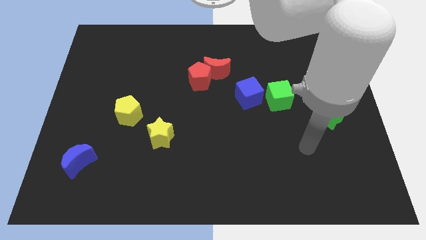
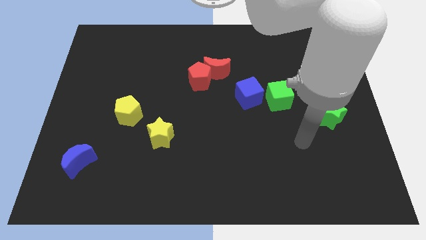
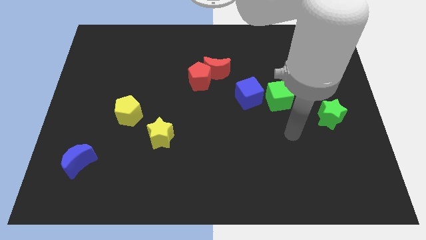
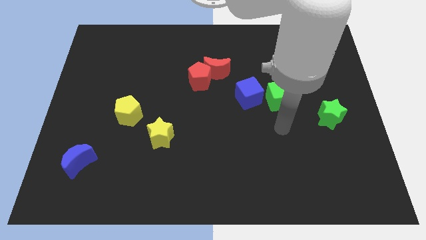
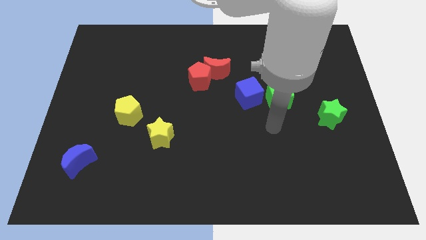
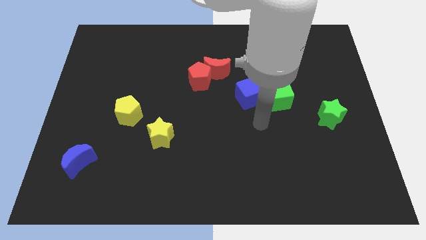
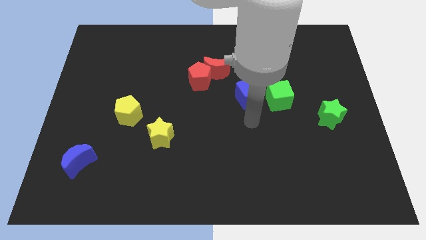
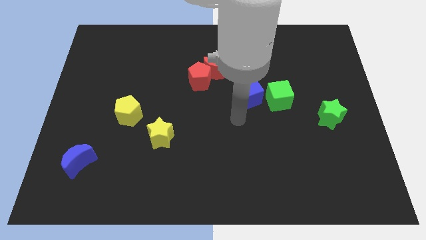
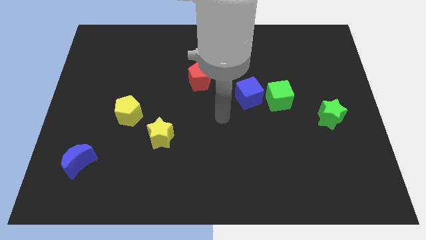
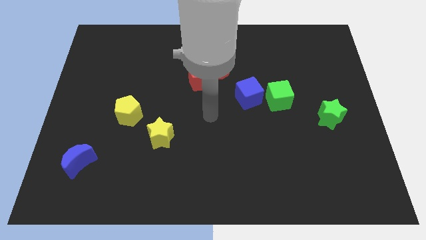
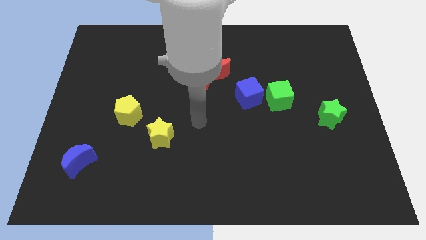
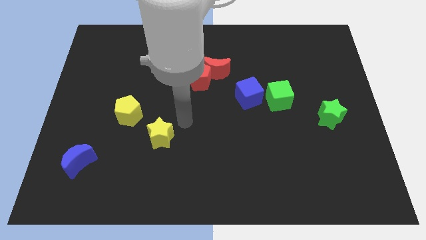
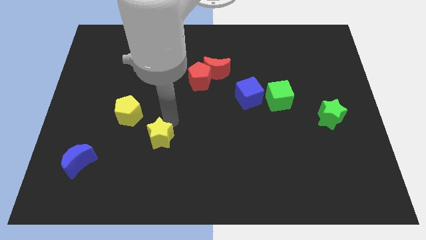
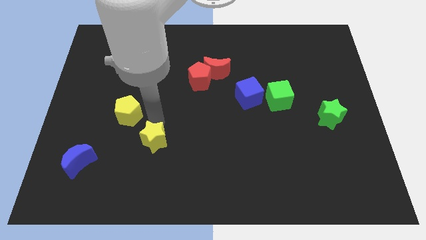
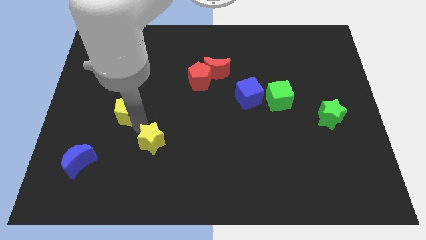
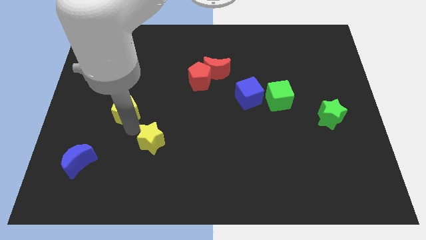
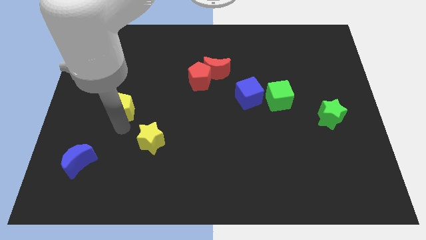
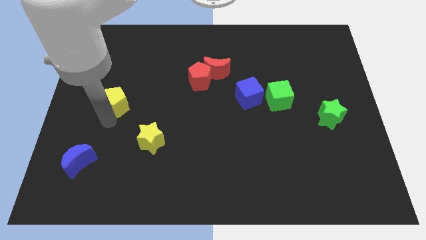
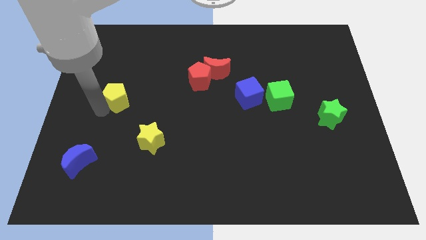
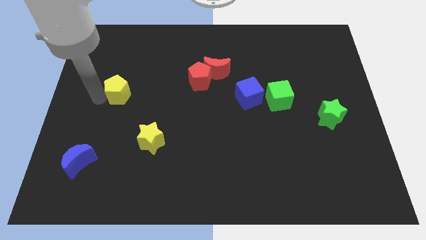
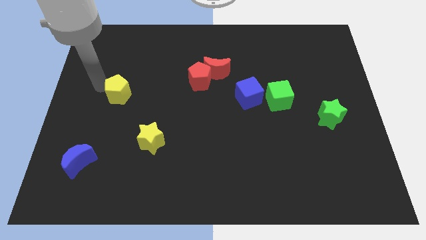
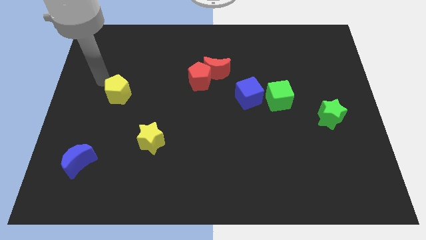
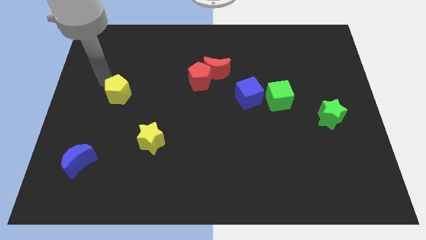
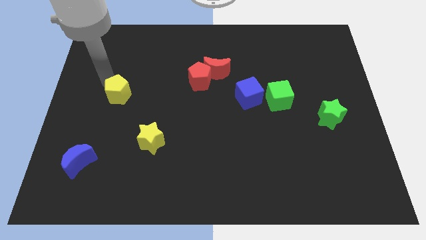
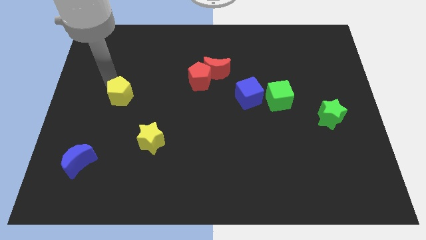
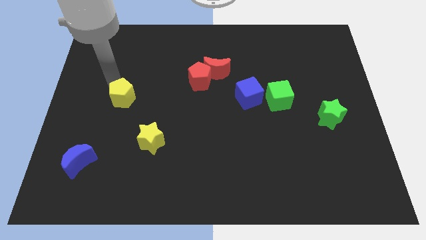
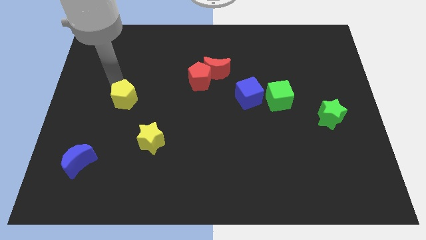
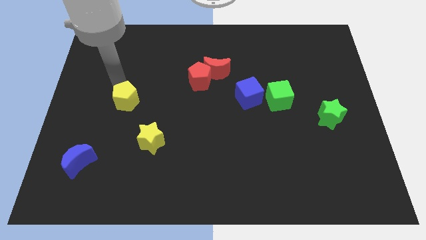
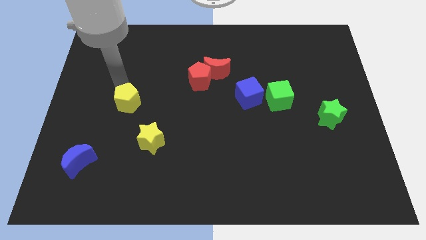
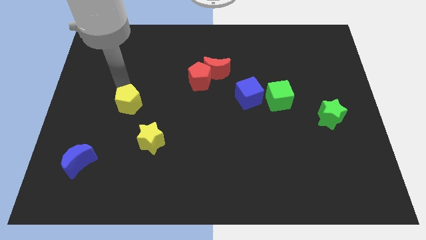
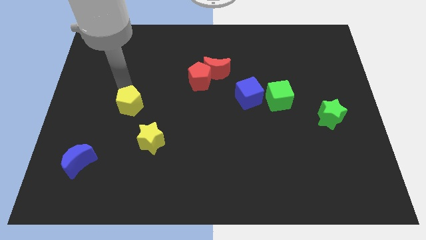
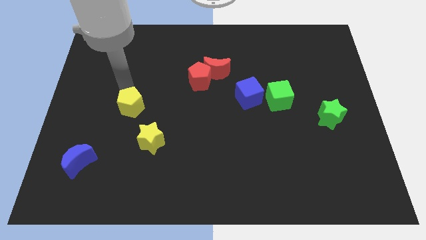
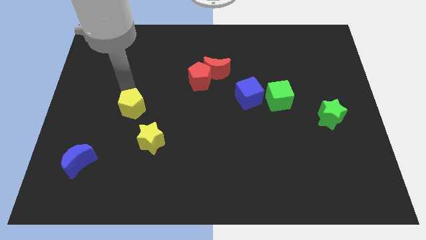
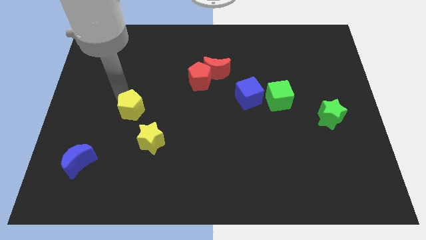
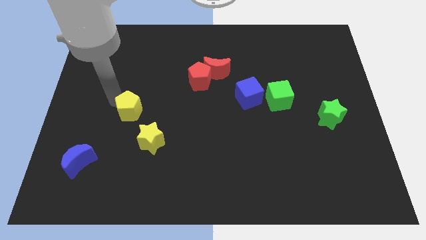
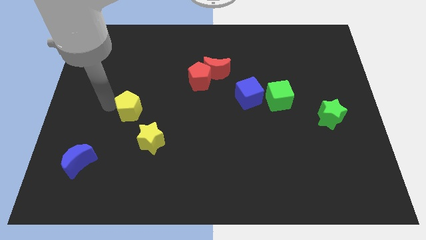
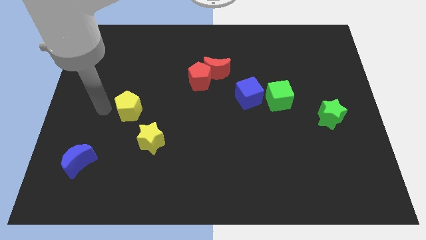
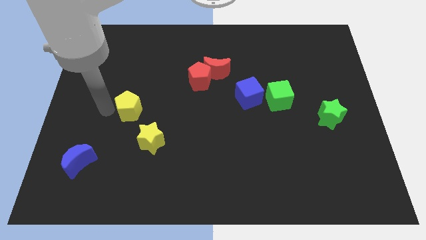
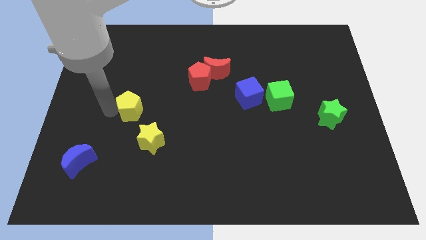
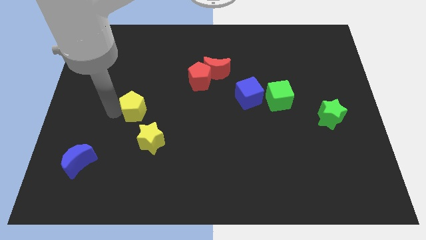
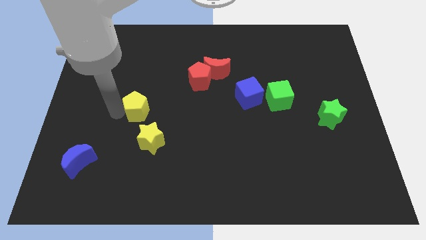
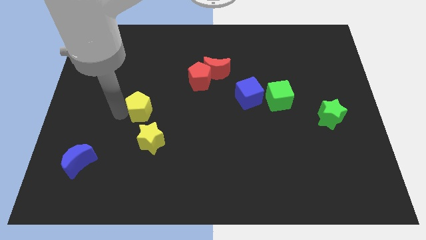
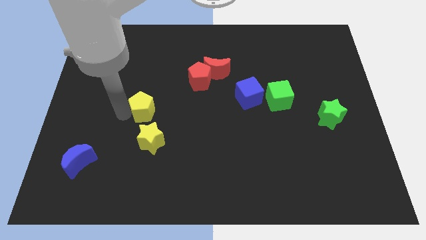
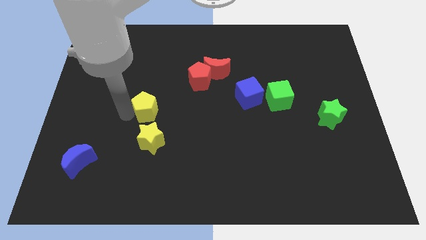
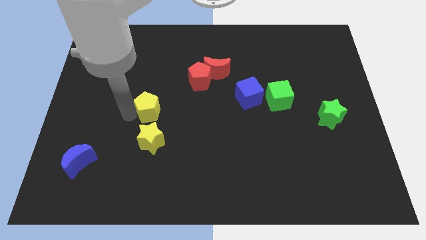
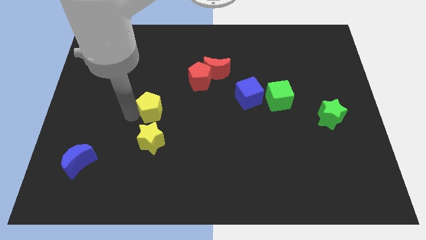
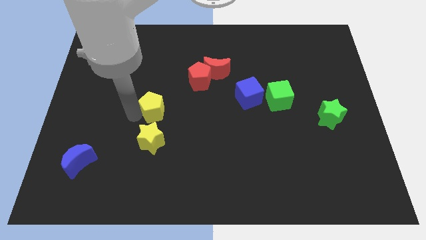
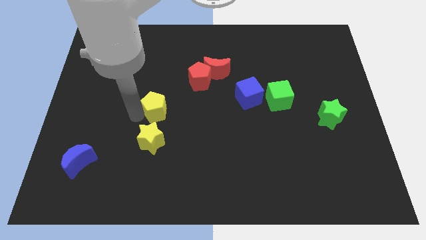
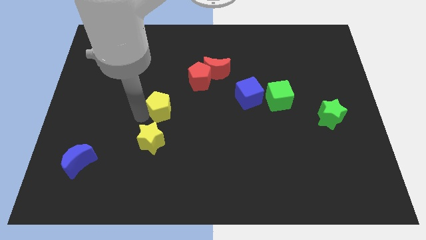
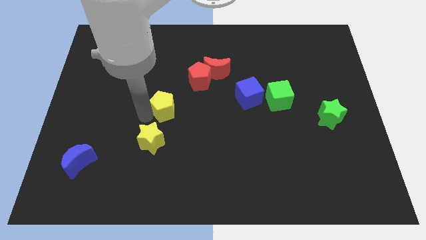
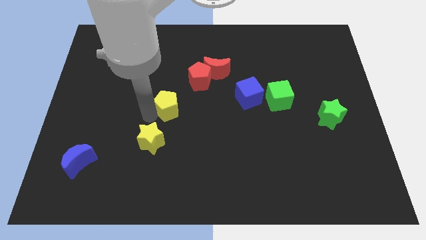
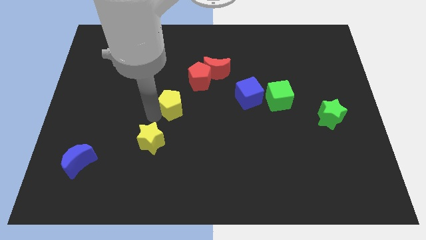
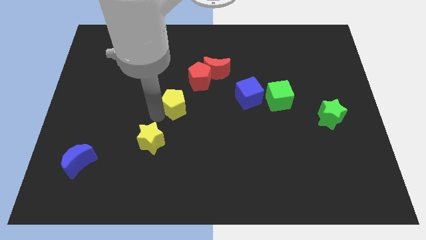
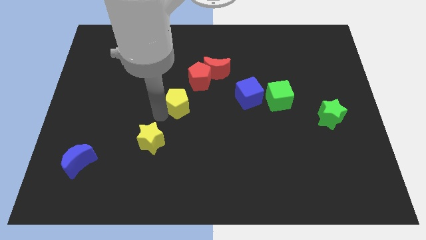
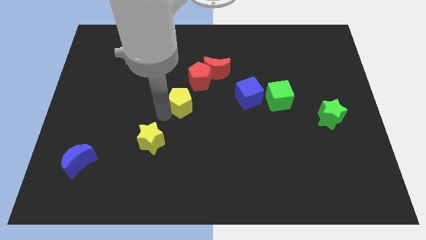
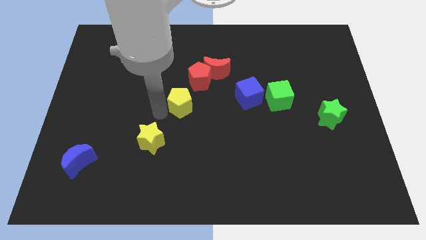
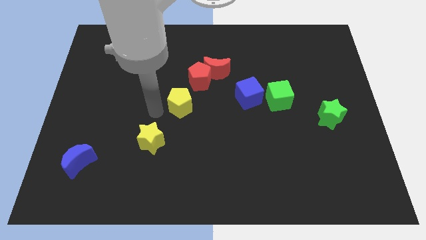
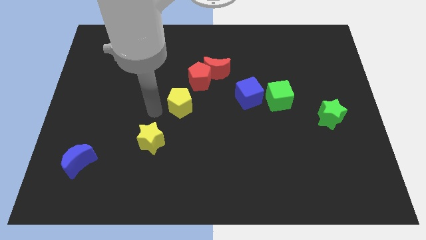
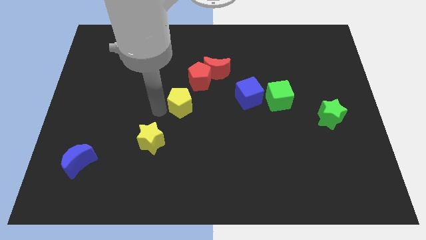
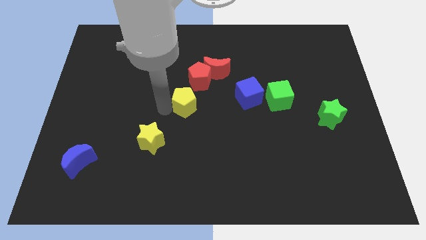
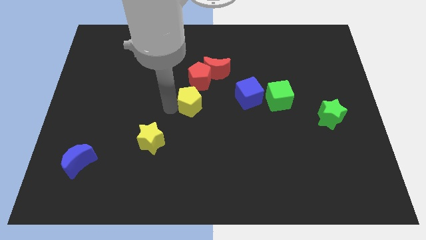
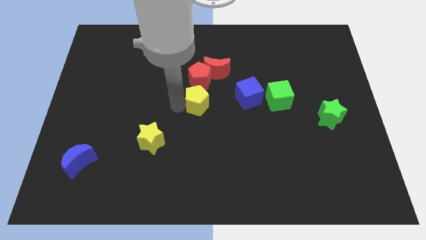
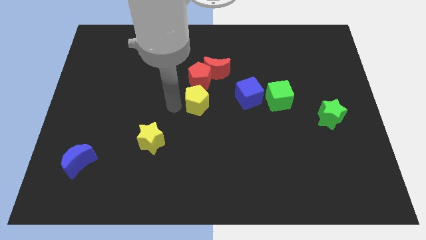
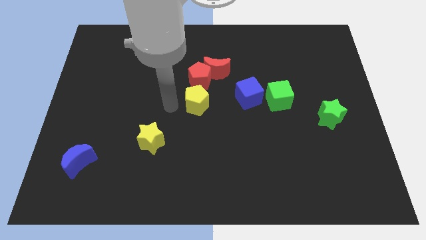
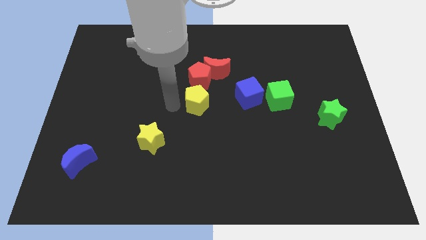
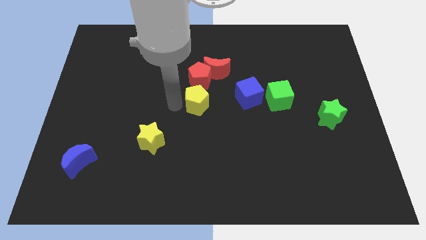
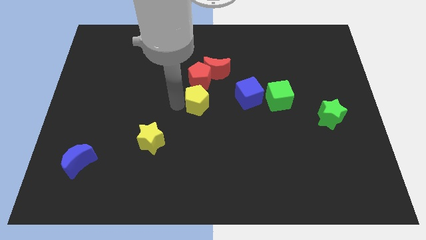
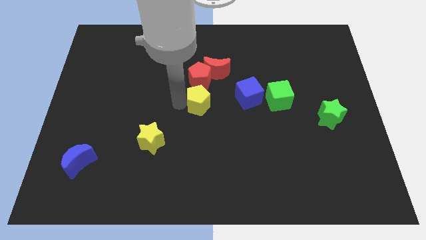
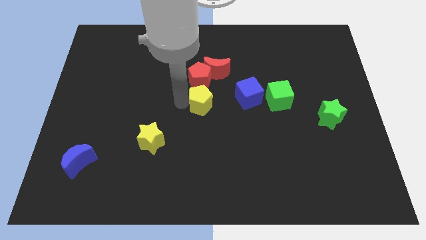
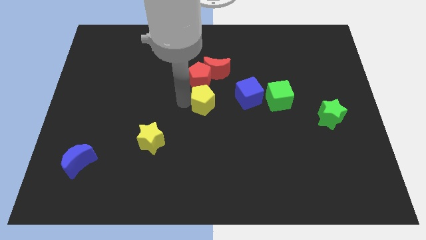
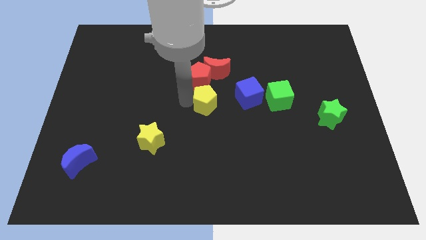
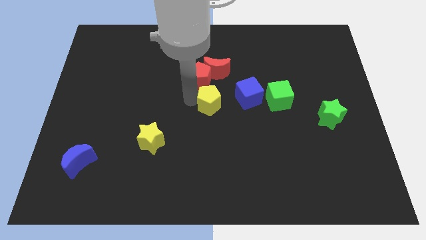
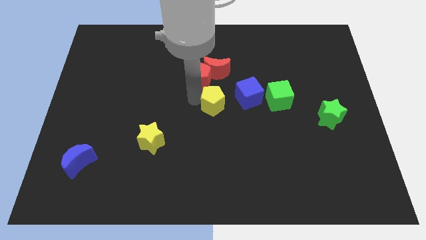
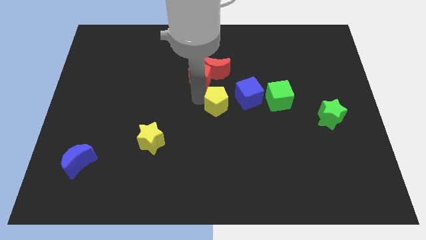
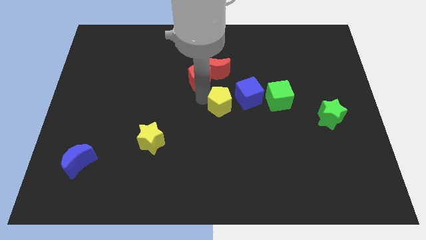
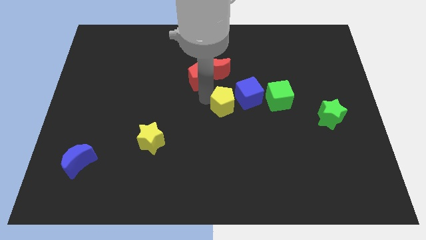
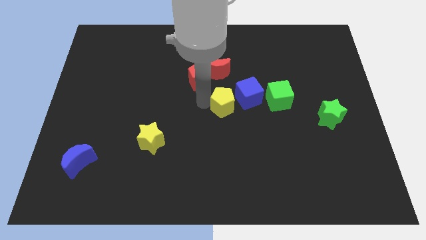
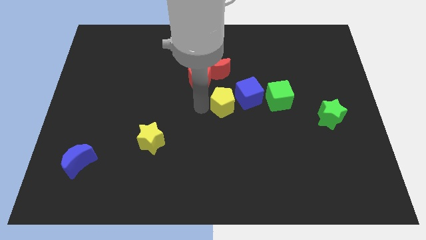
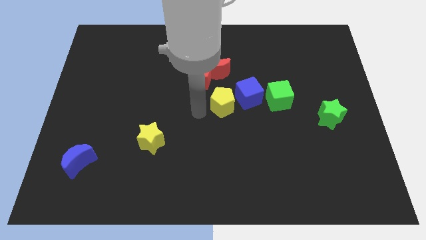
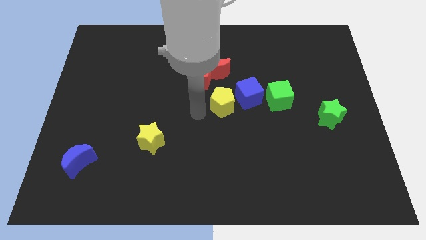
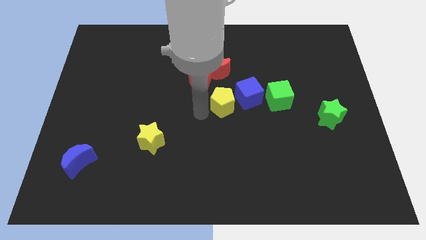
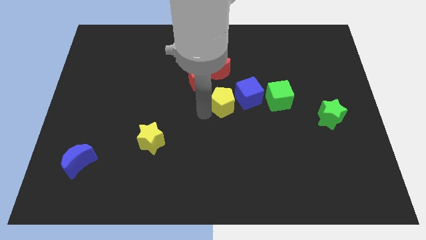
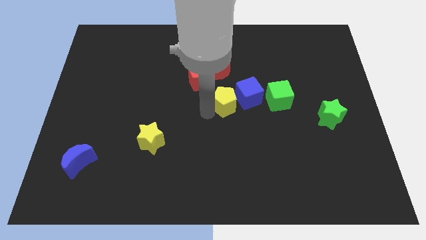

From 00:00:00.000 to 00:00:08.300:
slide the yellow pentagon close to the blue cube
